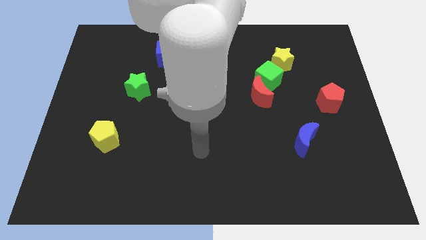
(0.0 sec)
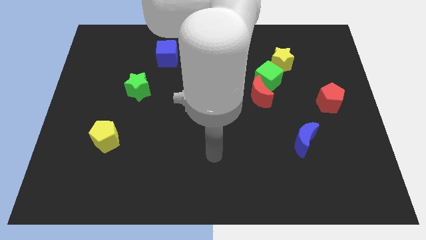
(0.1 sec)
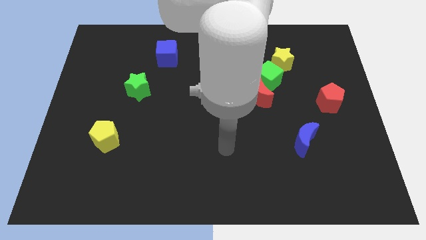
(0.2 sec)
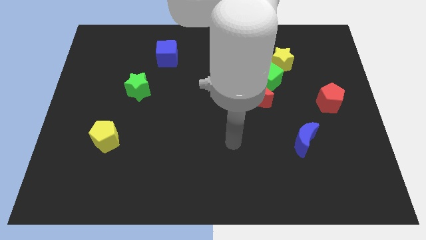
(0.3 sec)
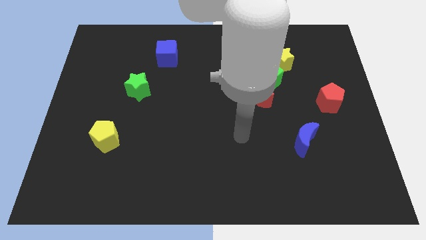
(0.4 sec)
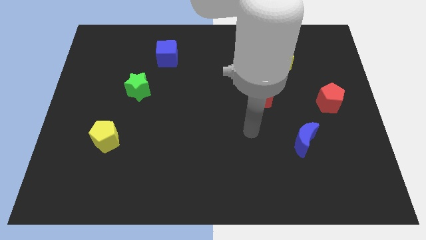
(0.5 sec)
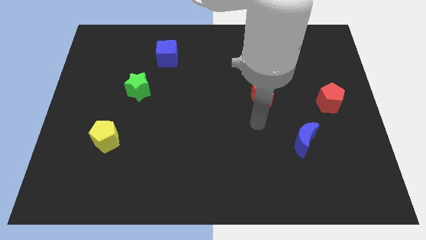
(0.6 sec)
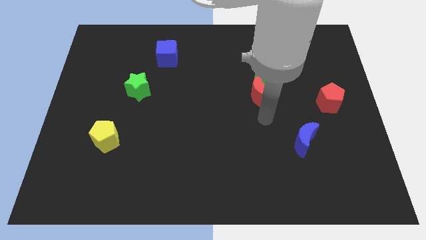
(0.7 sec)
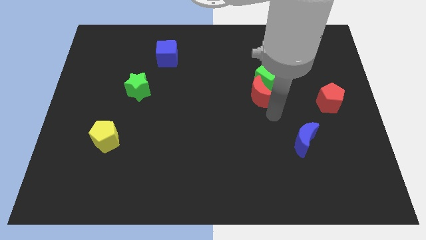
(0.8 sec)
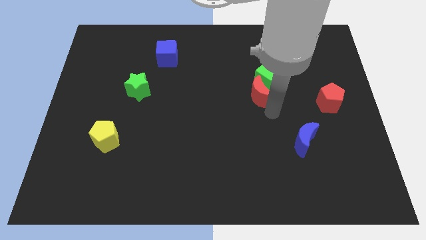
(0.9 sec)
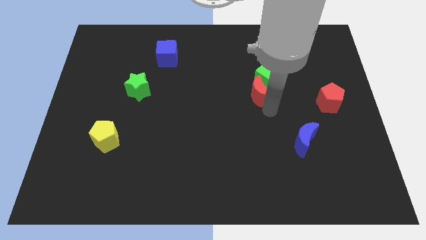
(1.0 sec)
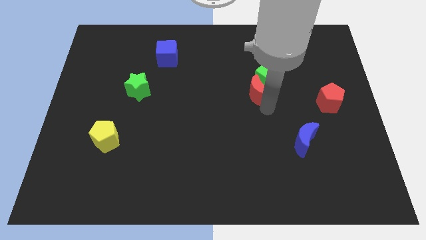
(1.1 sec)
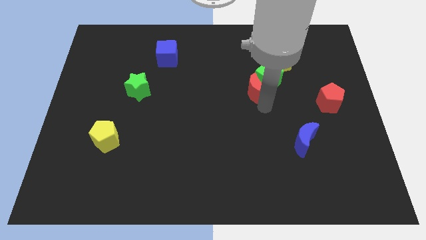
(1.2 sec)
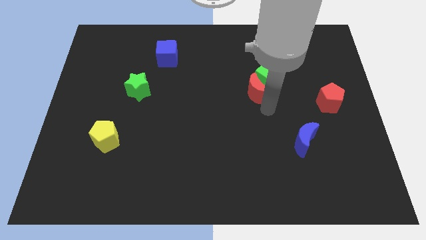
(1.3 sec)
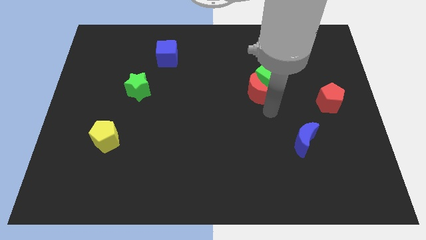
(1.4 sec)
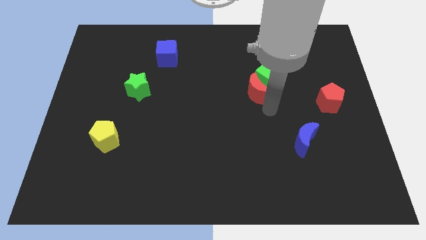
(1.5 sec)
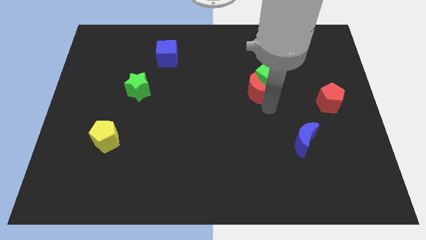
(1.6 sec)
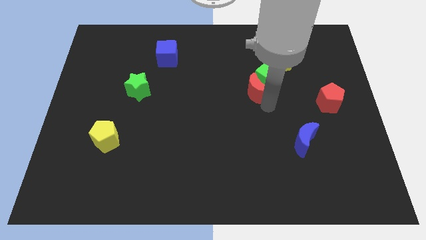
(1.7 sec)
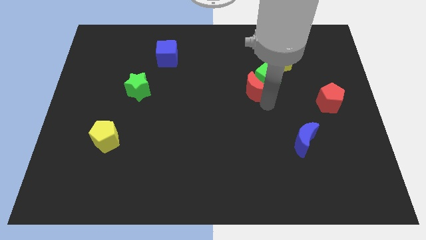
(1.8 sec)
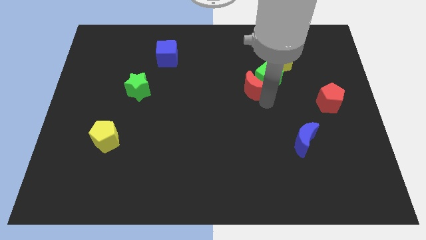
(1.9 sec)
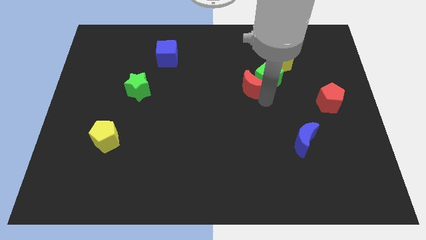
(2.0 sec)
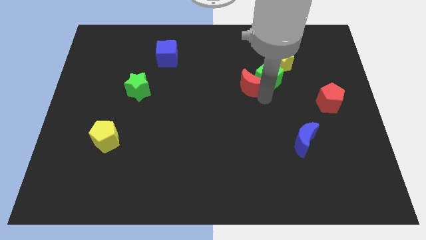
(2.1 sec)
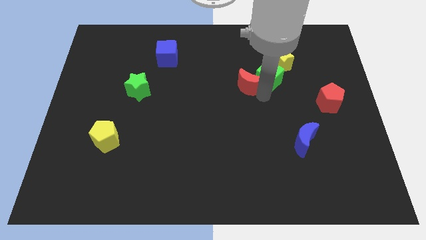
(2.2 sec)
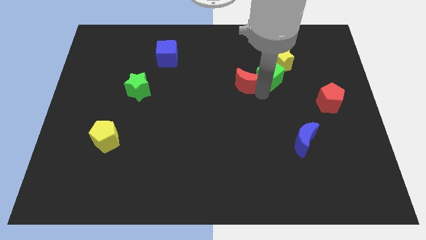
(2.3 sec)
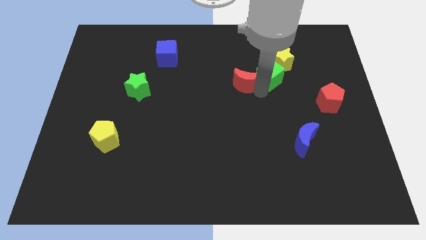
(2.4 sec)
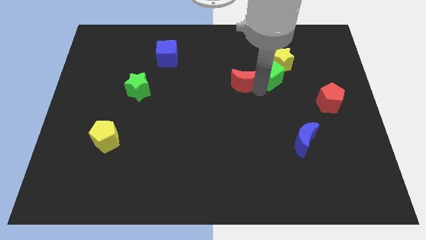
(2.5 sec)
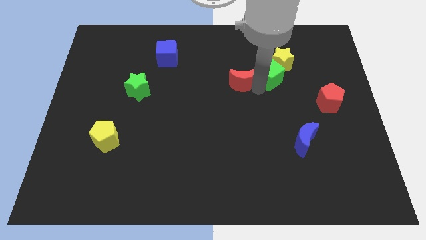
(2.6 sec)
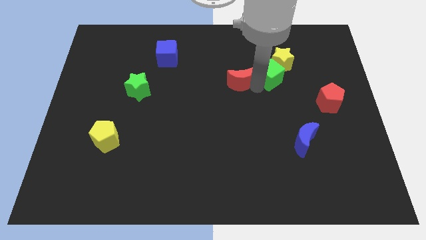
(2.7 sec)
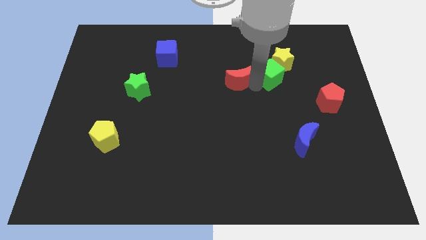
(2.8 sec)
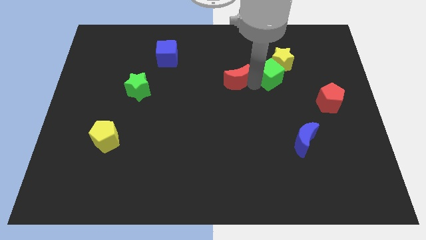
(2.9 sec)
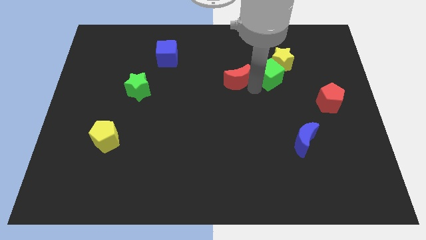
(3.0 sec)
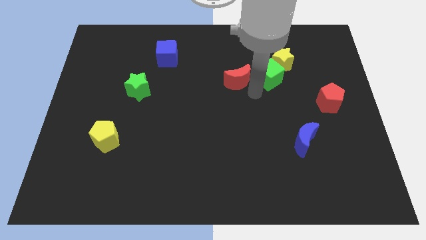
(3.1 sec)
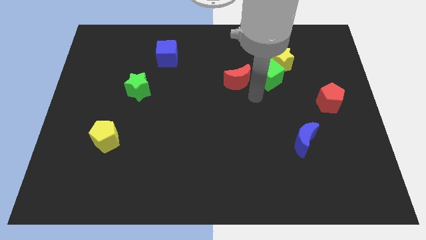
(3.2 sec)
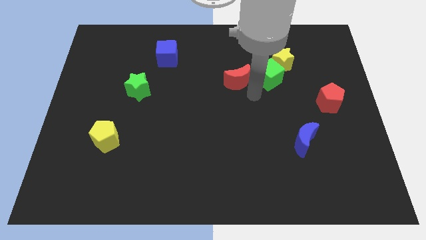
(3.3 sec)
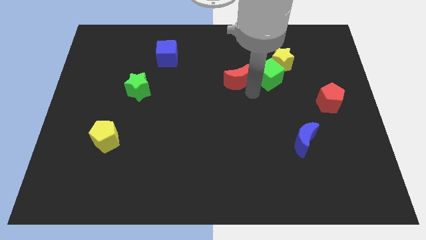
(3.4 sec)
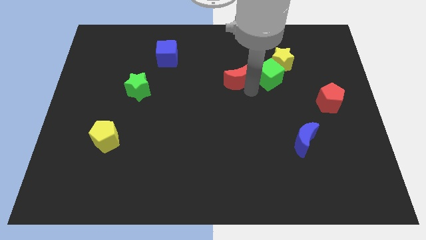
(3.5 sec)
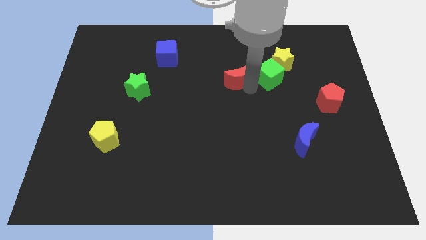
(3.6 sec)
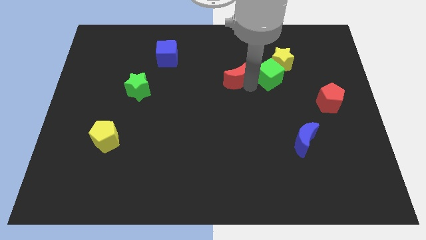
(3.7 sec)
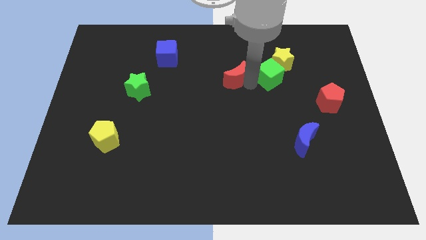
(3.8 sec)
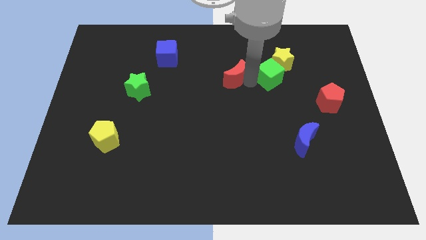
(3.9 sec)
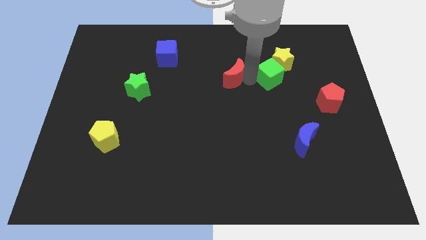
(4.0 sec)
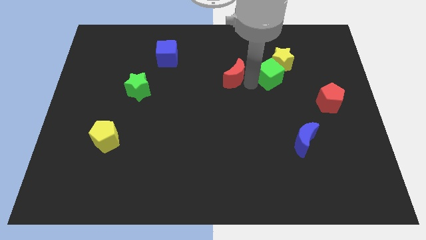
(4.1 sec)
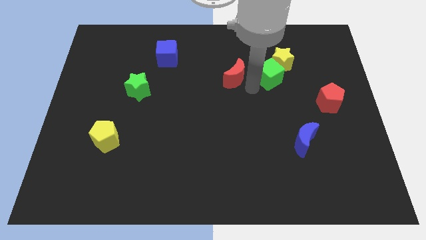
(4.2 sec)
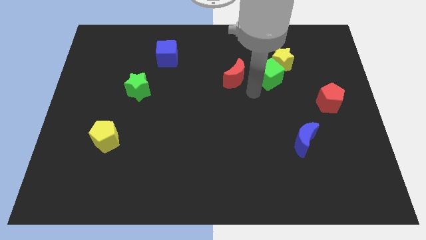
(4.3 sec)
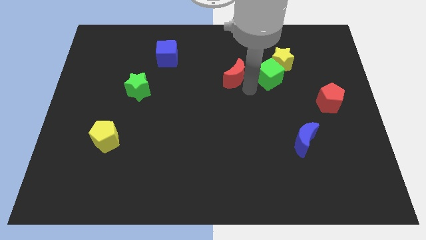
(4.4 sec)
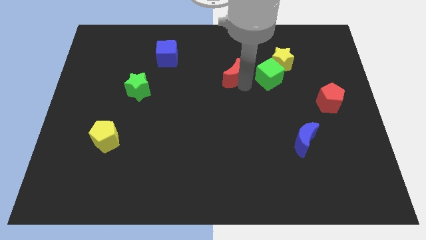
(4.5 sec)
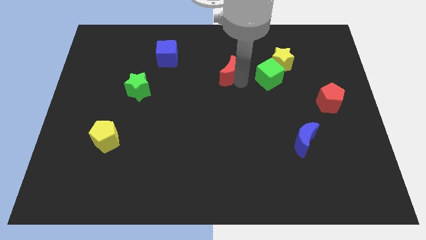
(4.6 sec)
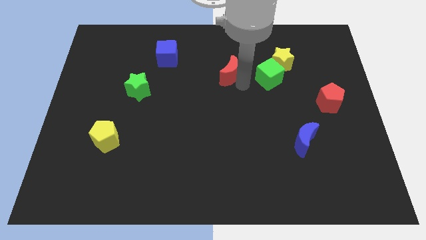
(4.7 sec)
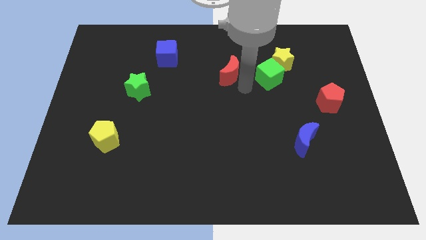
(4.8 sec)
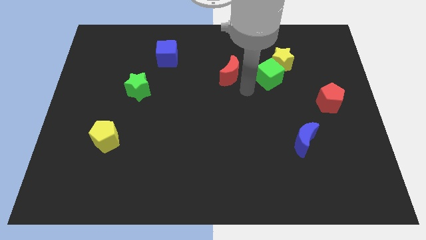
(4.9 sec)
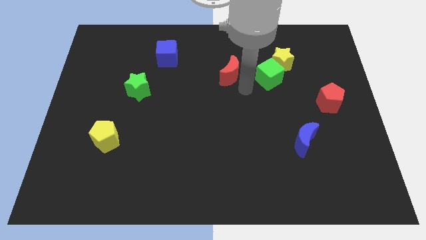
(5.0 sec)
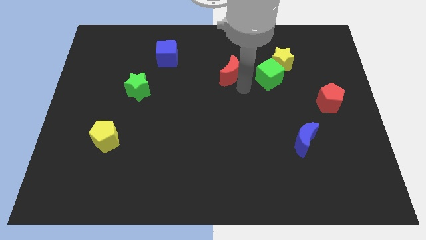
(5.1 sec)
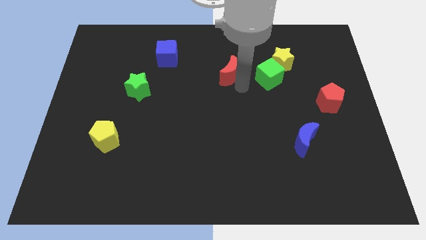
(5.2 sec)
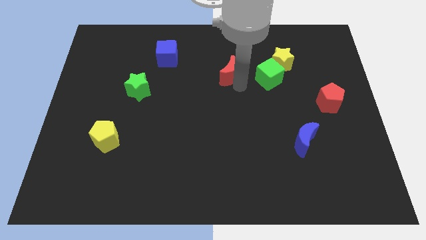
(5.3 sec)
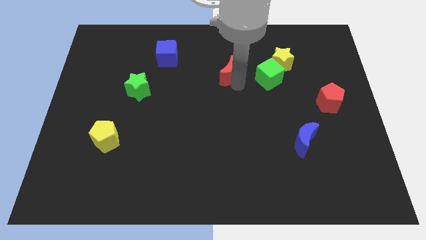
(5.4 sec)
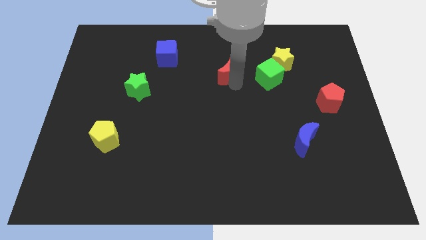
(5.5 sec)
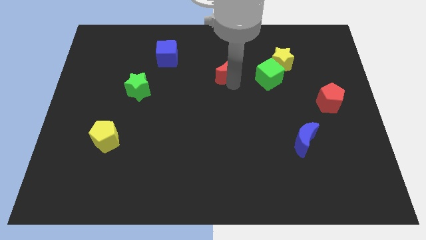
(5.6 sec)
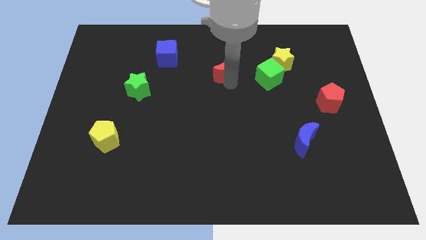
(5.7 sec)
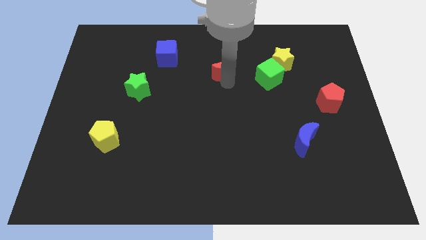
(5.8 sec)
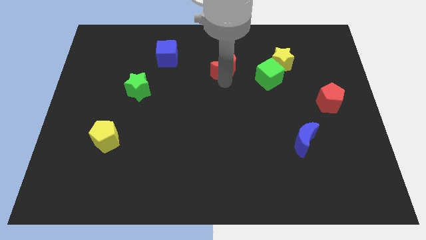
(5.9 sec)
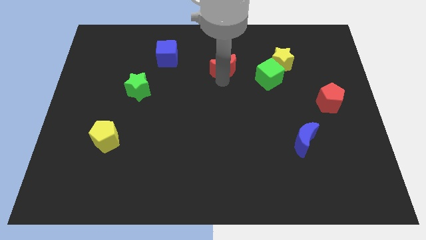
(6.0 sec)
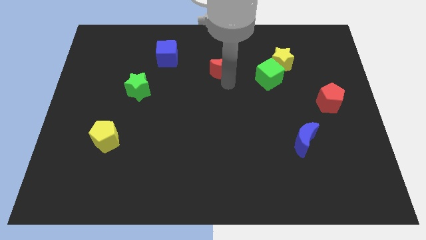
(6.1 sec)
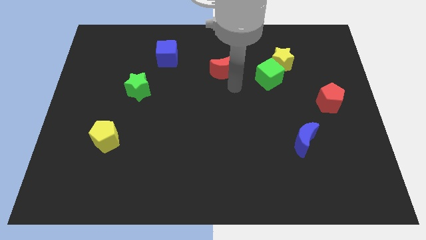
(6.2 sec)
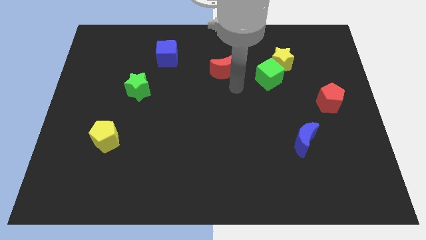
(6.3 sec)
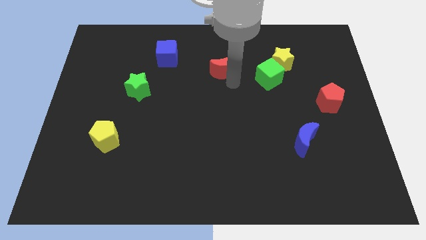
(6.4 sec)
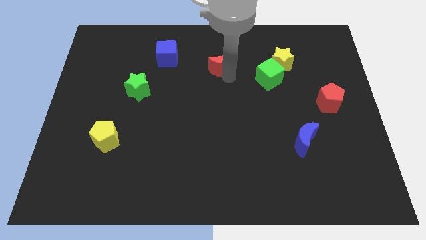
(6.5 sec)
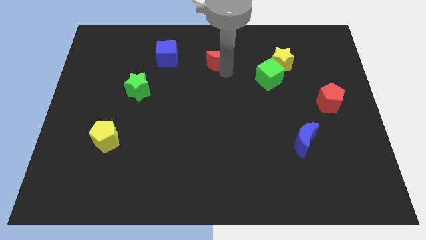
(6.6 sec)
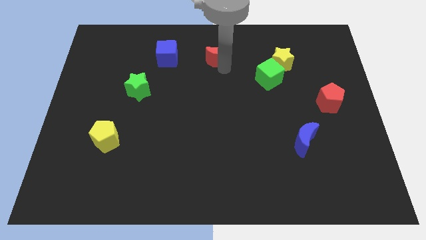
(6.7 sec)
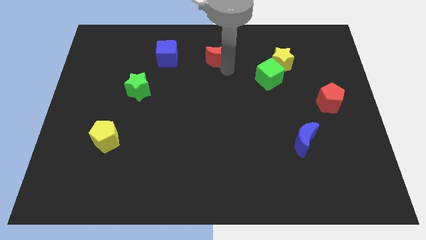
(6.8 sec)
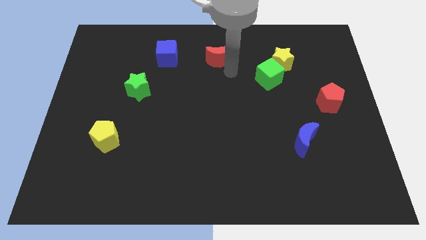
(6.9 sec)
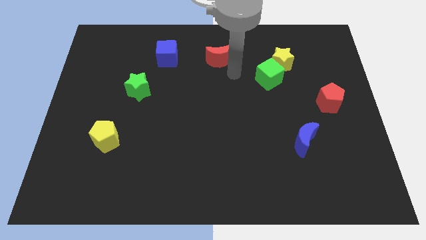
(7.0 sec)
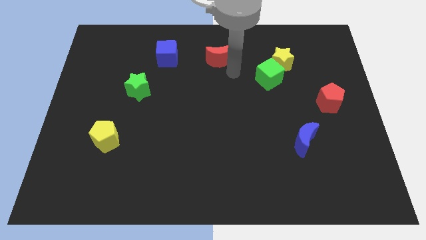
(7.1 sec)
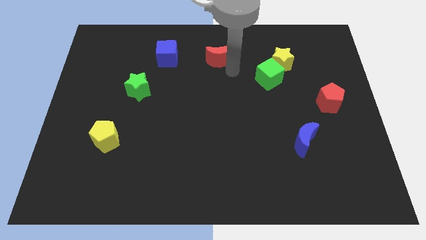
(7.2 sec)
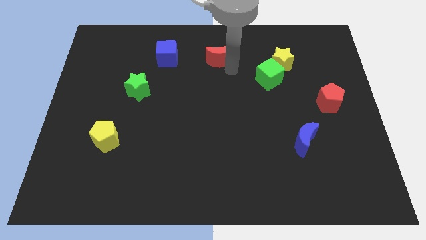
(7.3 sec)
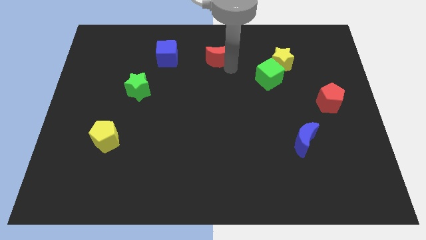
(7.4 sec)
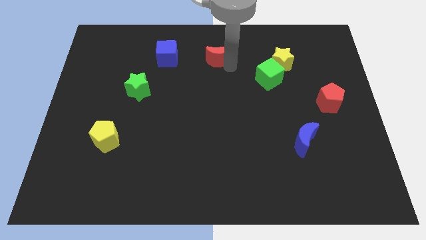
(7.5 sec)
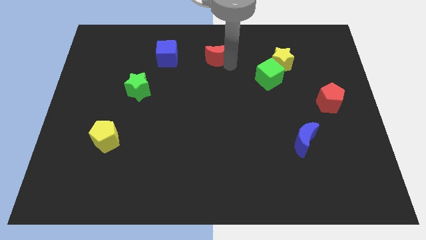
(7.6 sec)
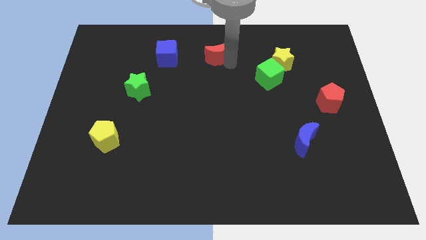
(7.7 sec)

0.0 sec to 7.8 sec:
move the red moon to the top
